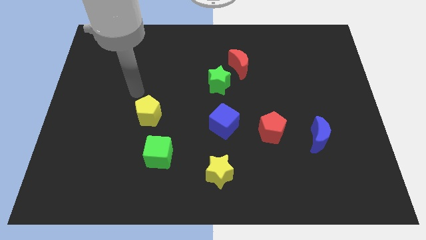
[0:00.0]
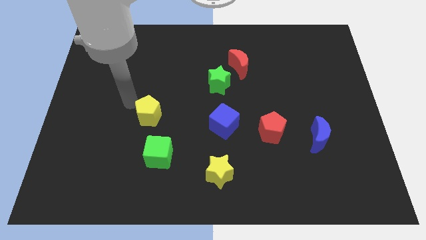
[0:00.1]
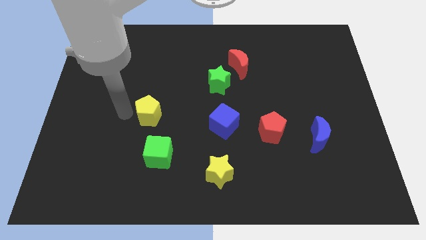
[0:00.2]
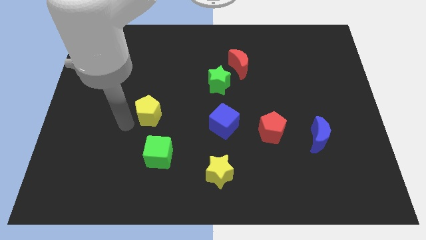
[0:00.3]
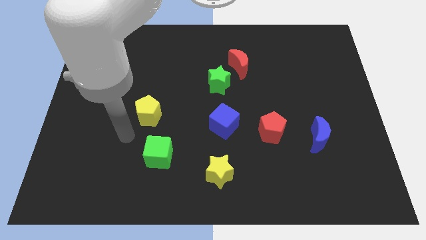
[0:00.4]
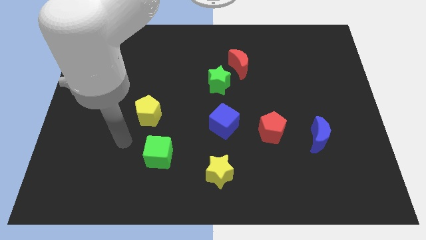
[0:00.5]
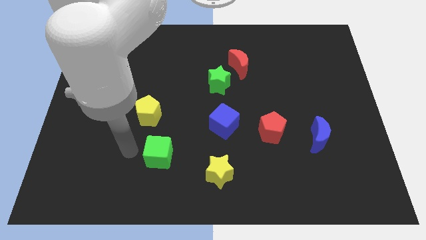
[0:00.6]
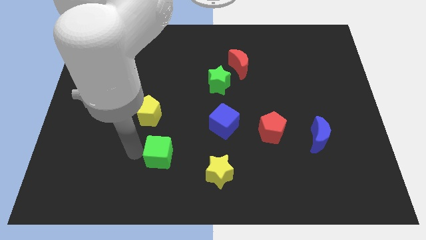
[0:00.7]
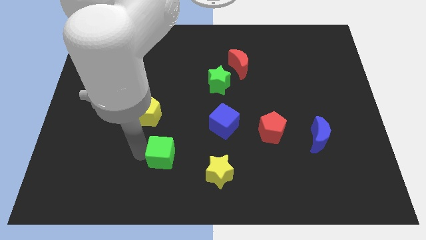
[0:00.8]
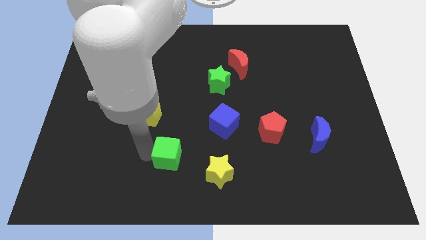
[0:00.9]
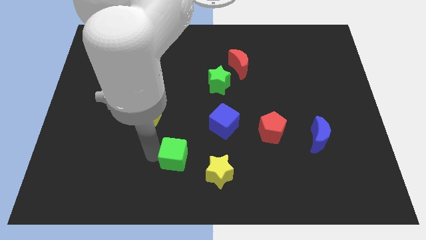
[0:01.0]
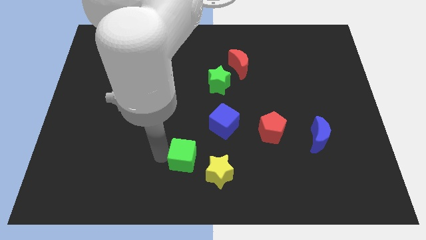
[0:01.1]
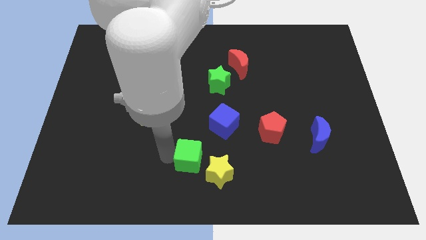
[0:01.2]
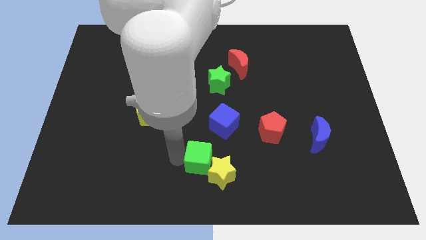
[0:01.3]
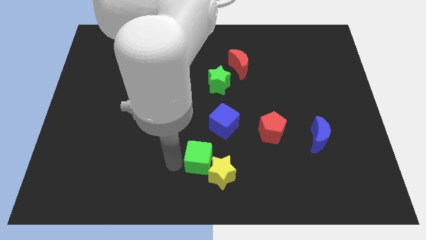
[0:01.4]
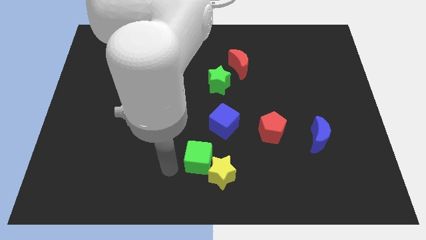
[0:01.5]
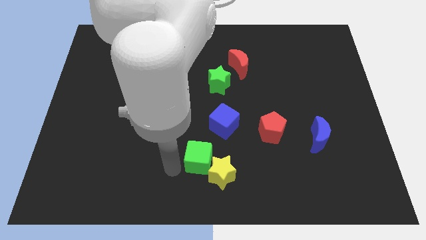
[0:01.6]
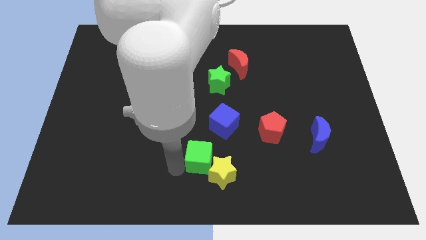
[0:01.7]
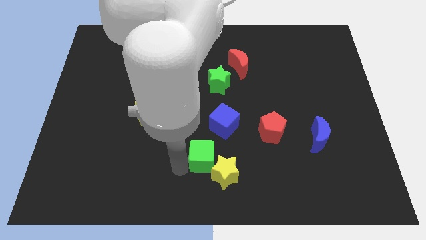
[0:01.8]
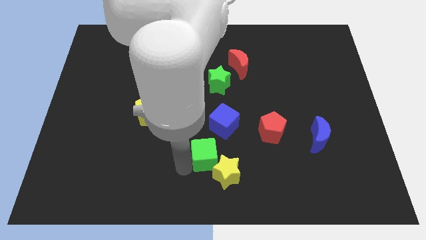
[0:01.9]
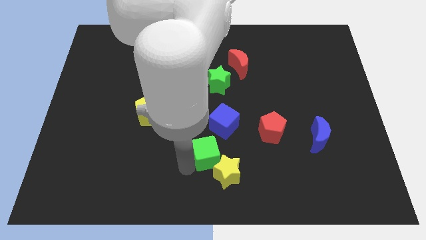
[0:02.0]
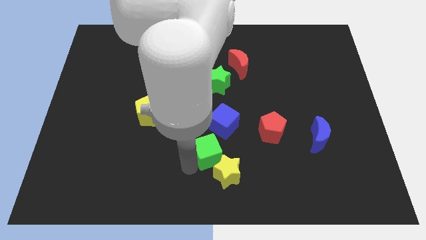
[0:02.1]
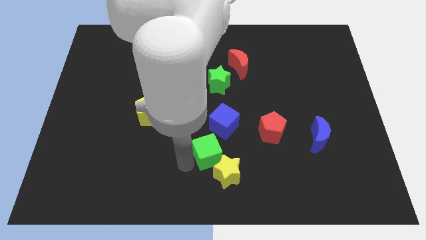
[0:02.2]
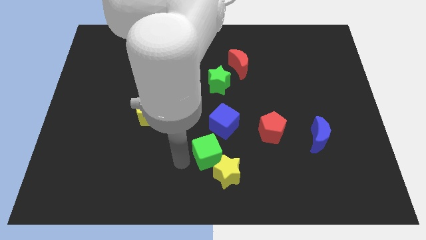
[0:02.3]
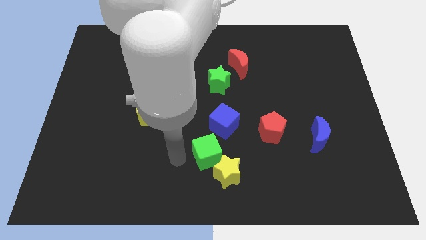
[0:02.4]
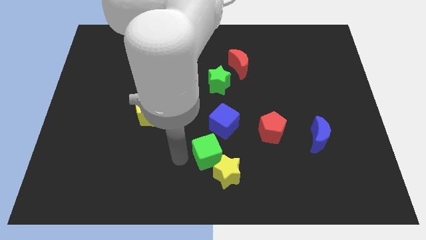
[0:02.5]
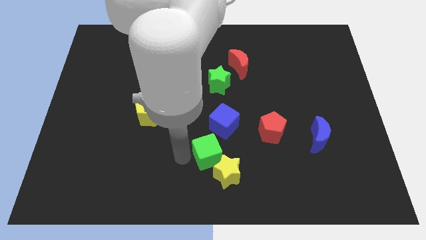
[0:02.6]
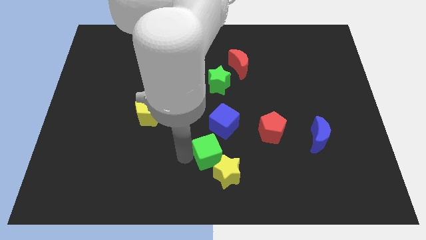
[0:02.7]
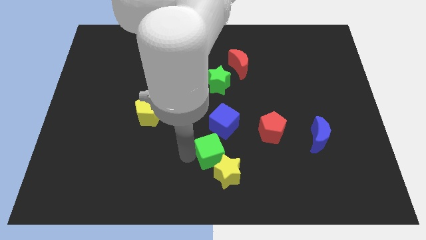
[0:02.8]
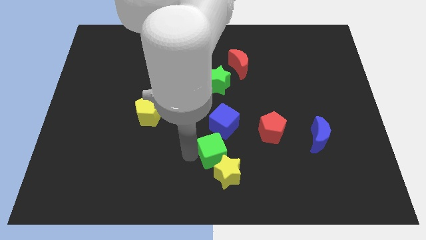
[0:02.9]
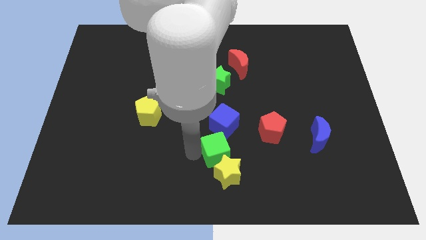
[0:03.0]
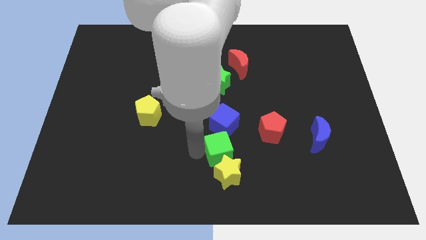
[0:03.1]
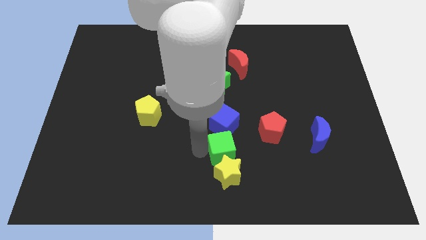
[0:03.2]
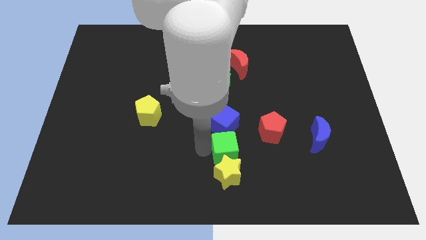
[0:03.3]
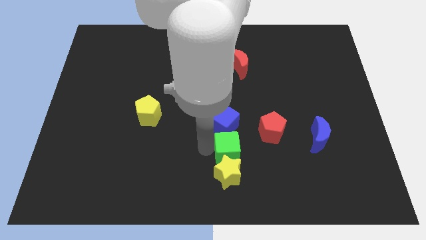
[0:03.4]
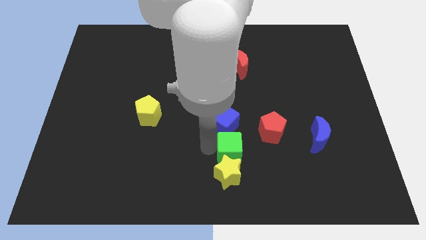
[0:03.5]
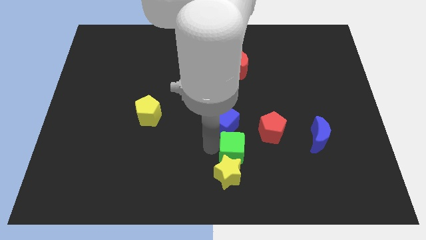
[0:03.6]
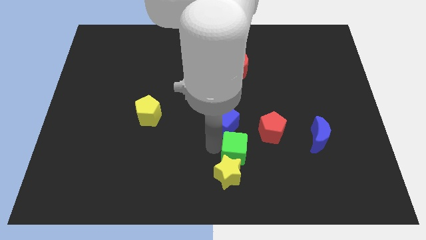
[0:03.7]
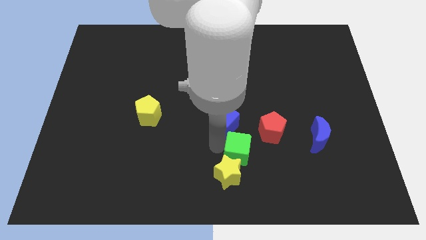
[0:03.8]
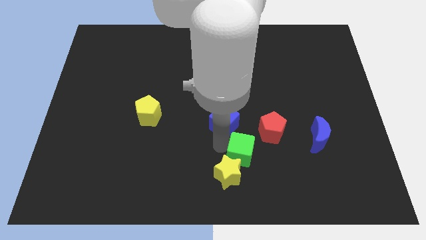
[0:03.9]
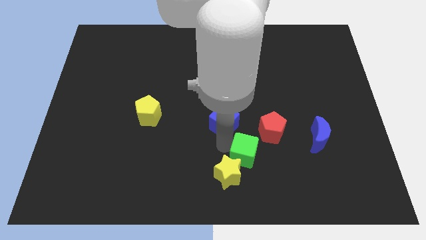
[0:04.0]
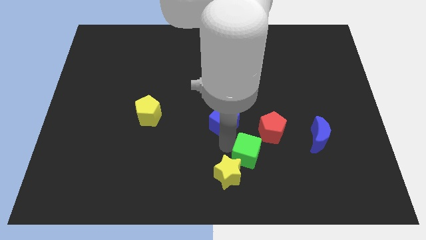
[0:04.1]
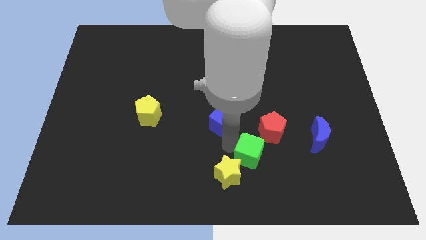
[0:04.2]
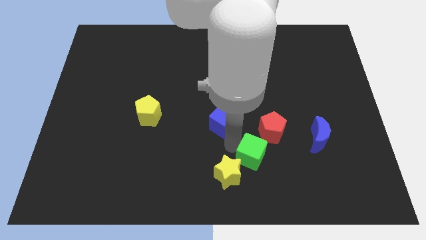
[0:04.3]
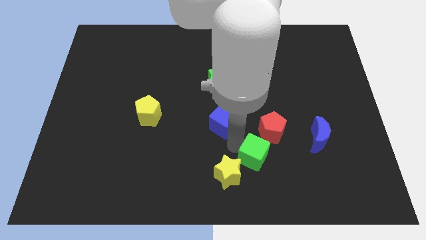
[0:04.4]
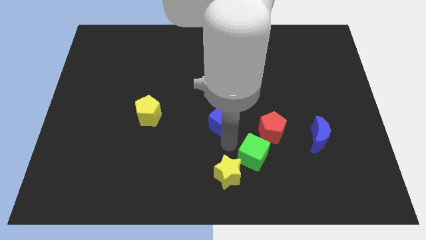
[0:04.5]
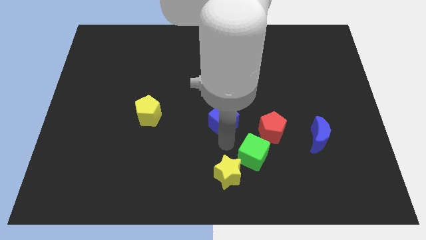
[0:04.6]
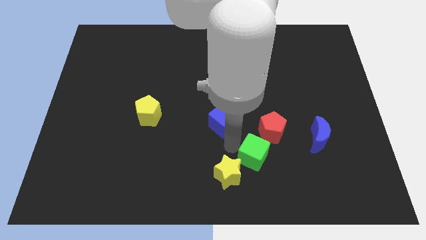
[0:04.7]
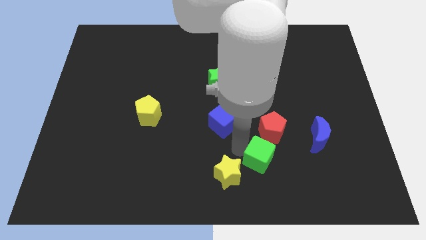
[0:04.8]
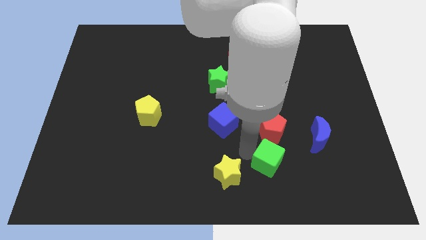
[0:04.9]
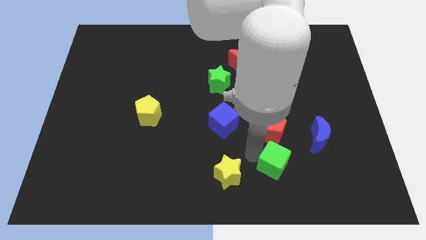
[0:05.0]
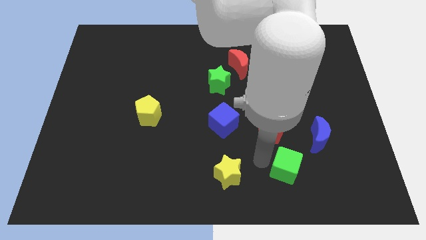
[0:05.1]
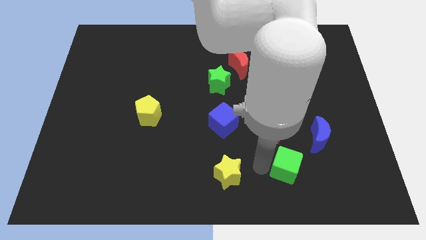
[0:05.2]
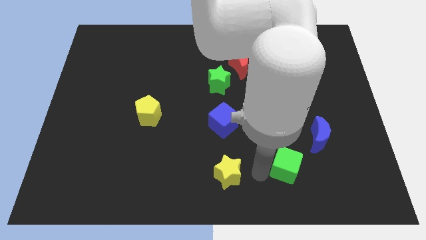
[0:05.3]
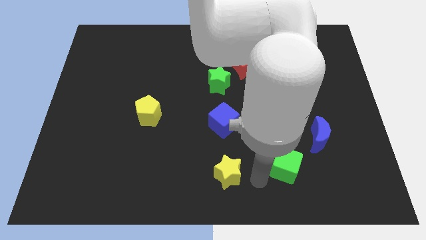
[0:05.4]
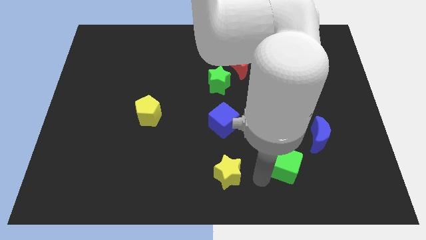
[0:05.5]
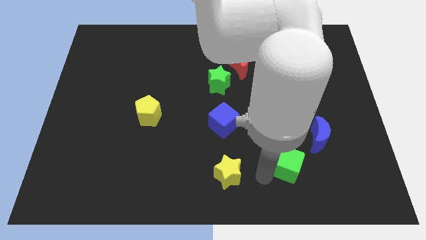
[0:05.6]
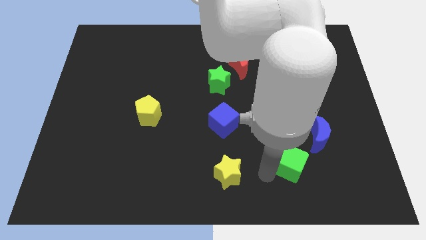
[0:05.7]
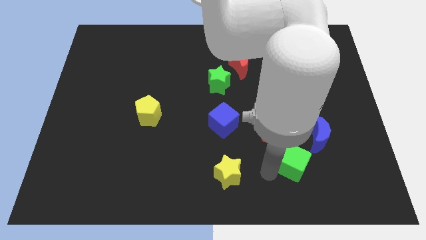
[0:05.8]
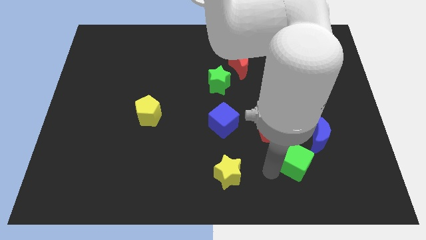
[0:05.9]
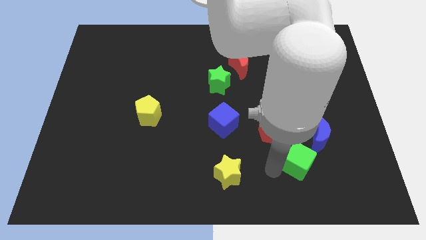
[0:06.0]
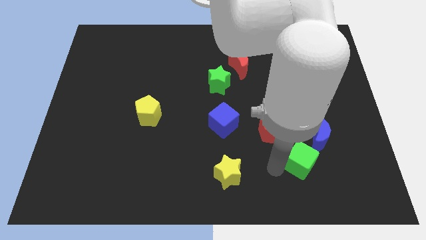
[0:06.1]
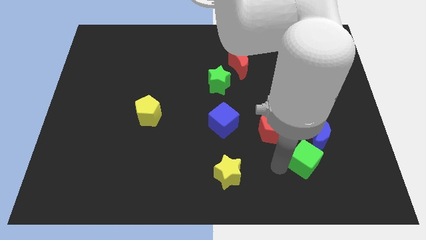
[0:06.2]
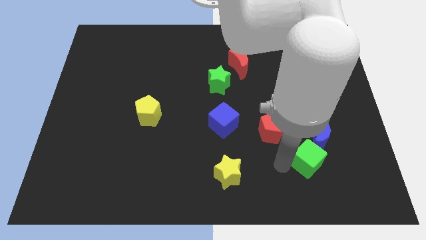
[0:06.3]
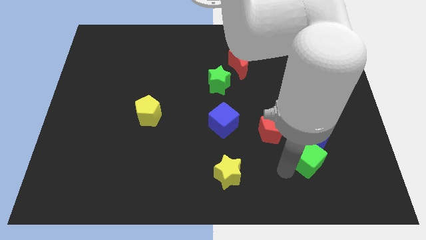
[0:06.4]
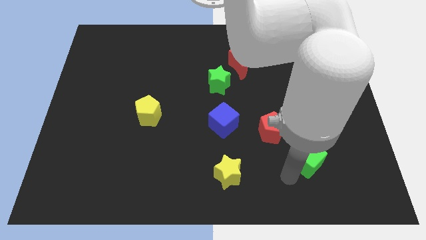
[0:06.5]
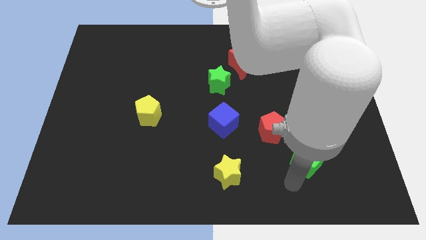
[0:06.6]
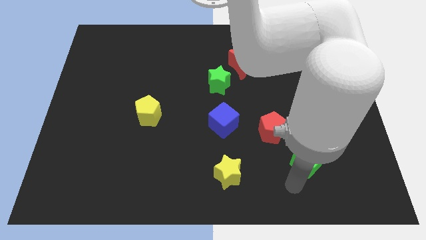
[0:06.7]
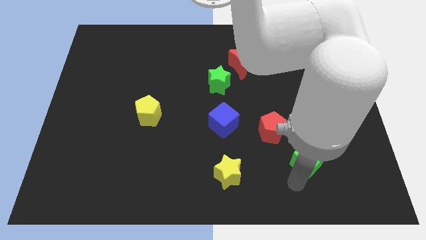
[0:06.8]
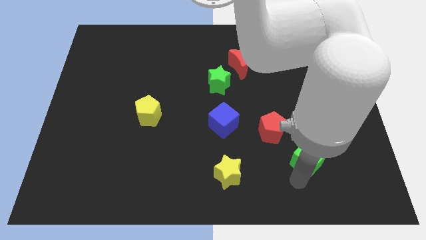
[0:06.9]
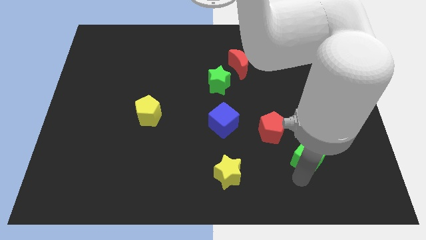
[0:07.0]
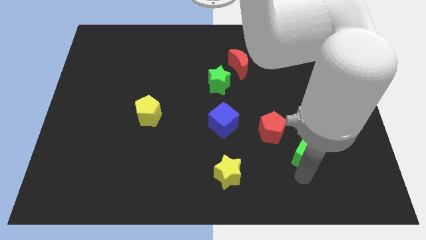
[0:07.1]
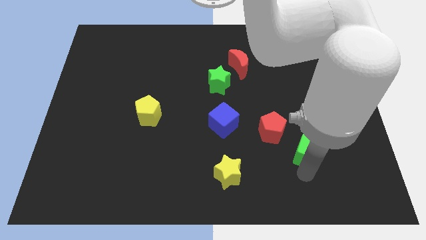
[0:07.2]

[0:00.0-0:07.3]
move the green cube towards the blue moon
